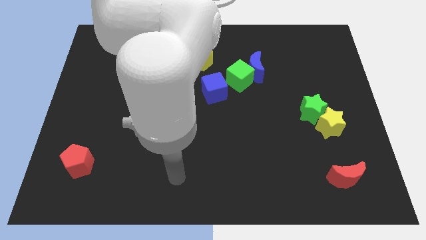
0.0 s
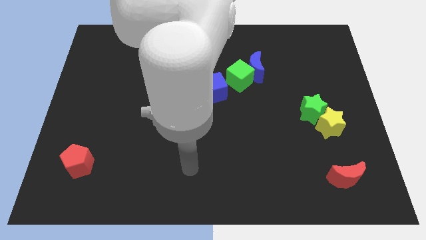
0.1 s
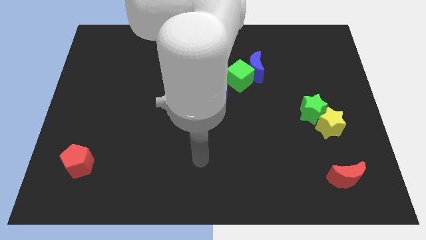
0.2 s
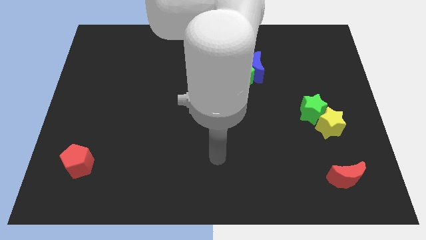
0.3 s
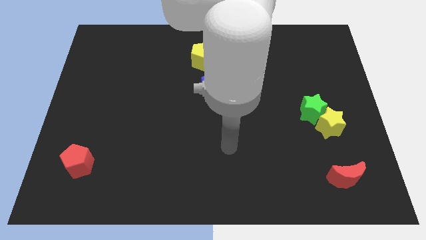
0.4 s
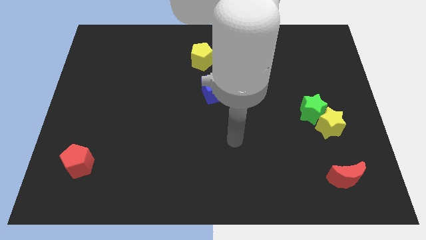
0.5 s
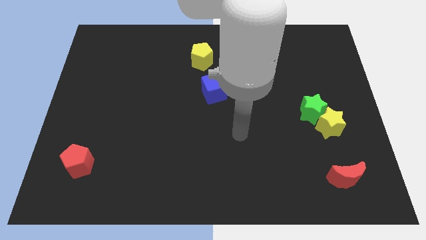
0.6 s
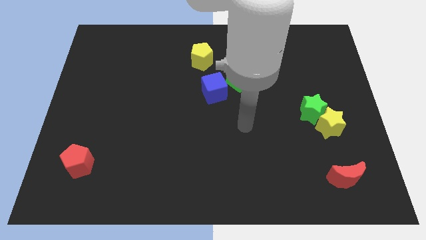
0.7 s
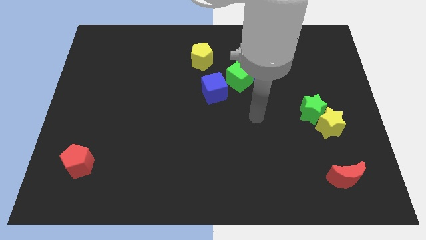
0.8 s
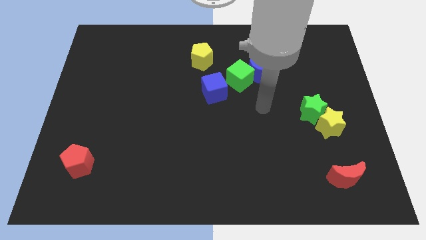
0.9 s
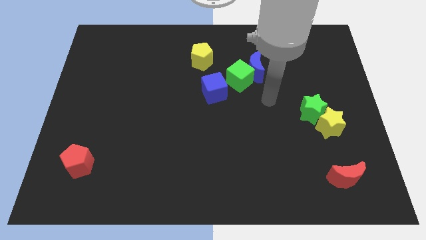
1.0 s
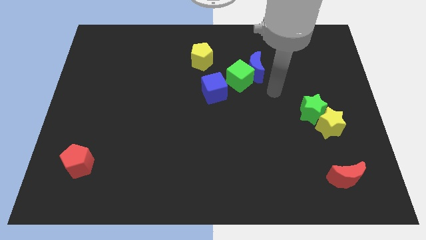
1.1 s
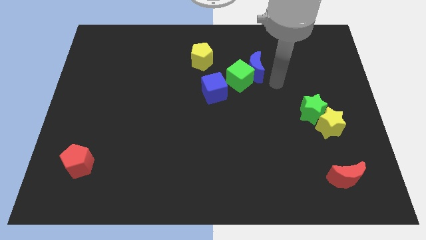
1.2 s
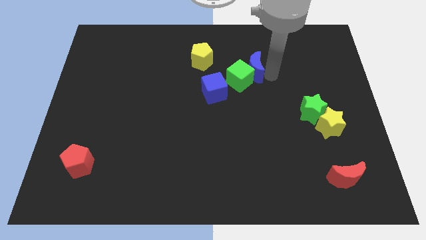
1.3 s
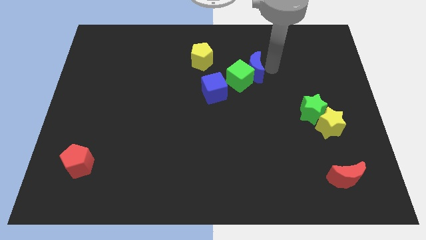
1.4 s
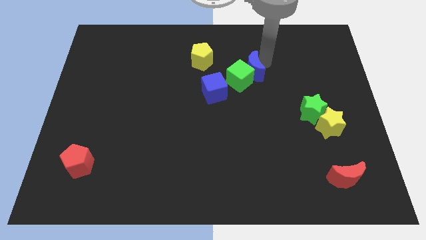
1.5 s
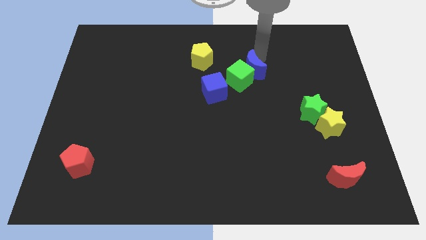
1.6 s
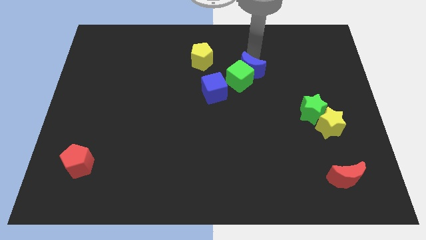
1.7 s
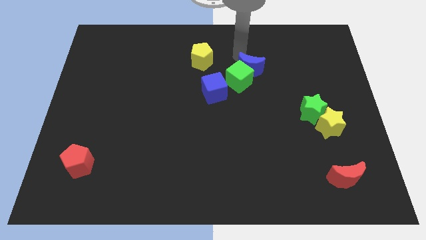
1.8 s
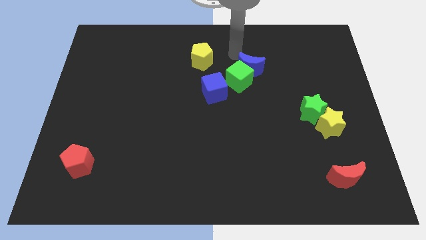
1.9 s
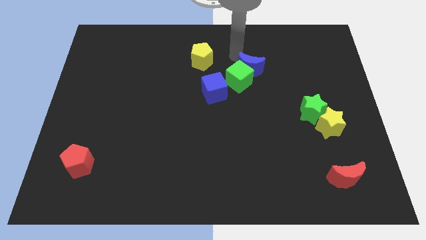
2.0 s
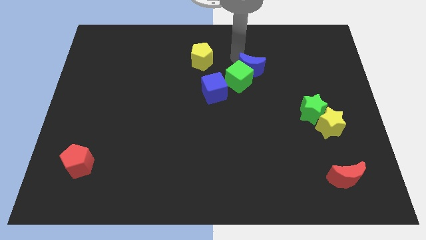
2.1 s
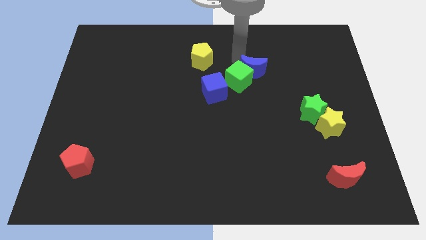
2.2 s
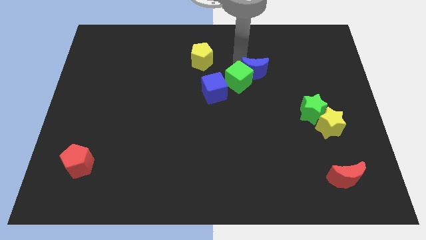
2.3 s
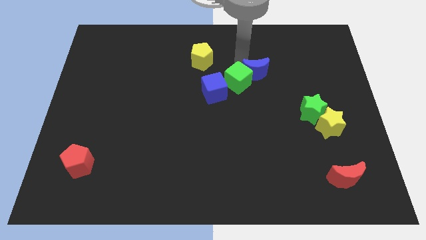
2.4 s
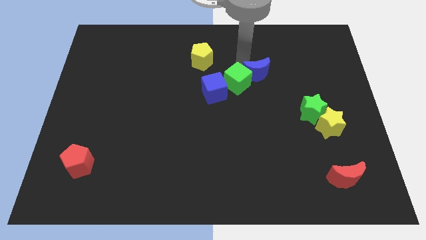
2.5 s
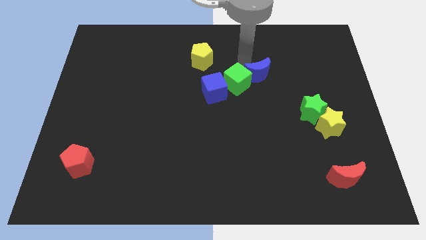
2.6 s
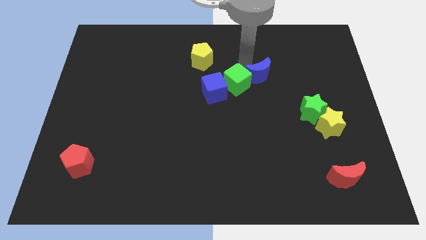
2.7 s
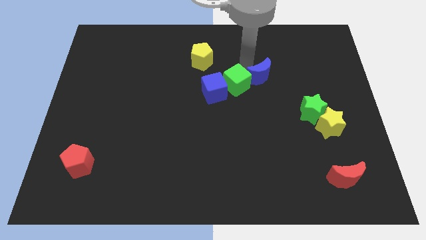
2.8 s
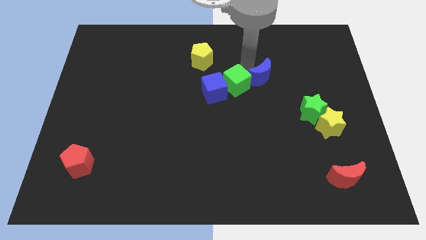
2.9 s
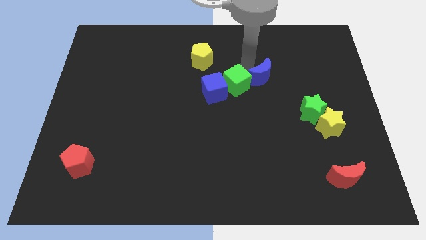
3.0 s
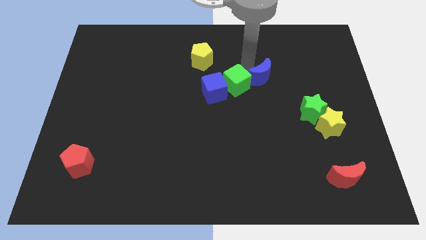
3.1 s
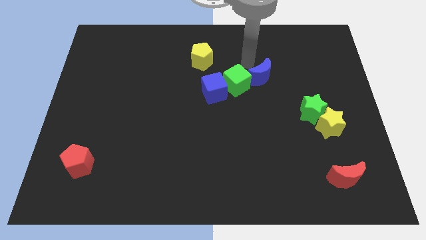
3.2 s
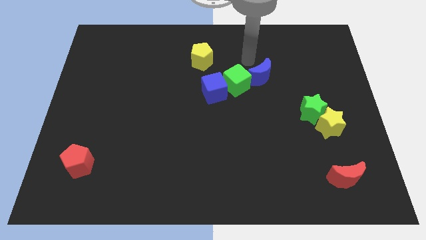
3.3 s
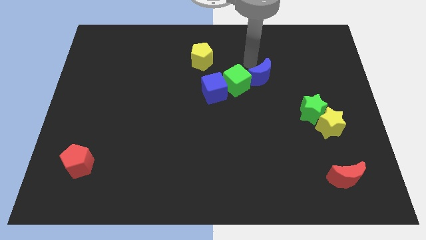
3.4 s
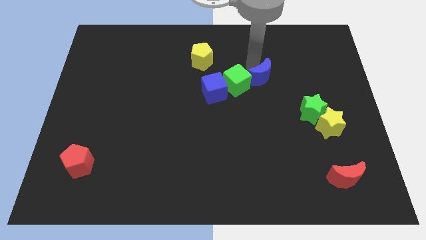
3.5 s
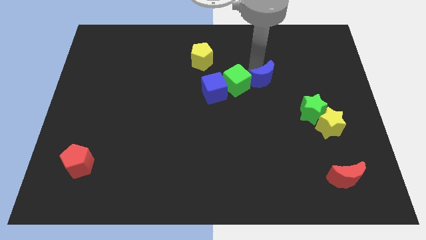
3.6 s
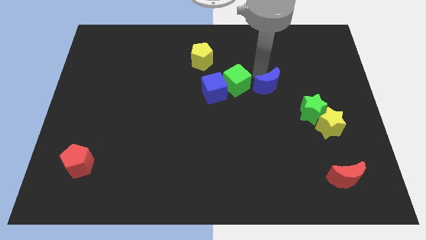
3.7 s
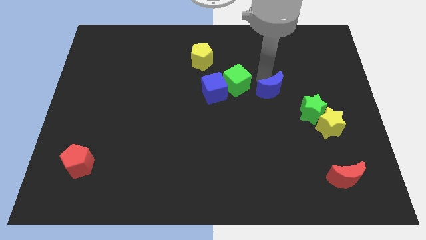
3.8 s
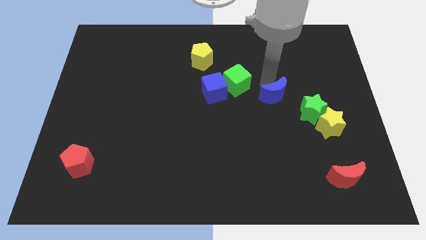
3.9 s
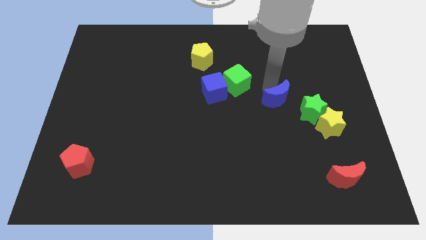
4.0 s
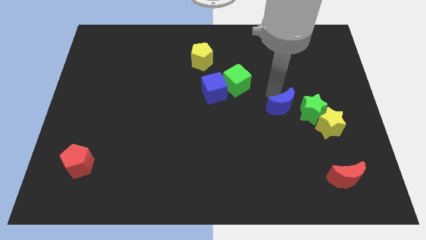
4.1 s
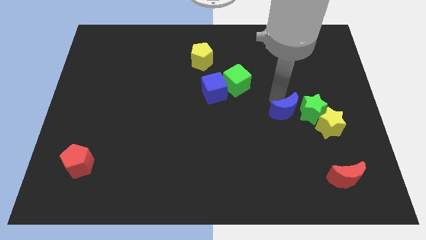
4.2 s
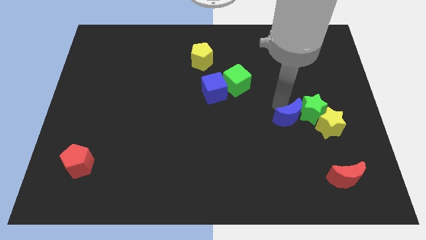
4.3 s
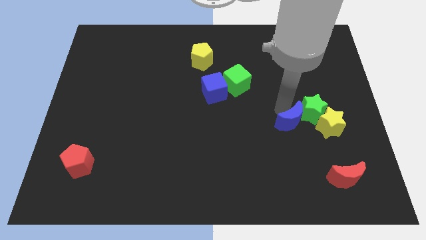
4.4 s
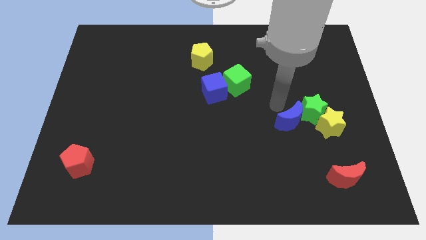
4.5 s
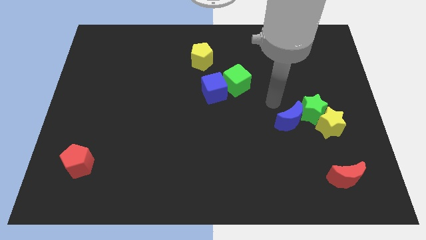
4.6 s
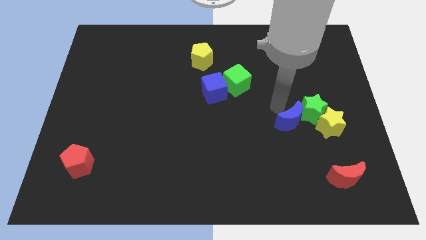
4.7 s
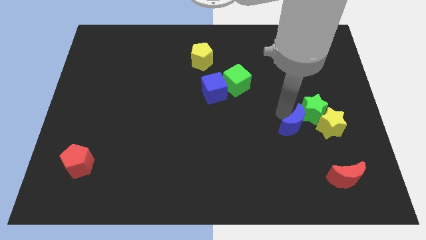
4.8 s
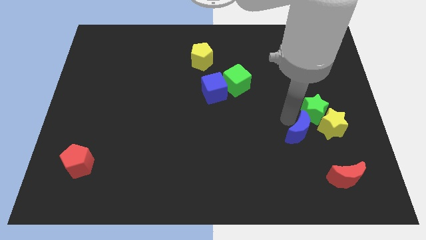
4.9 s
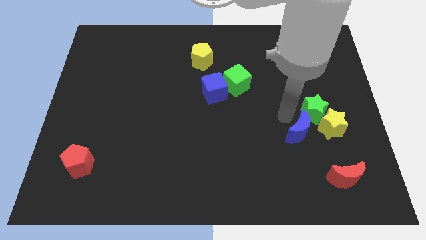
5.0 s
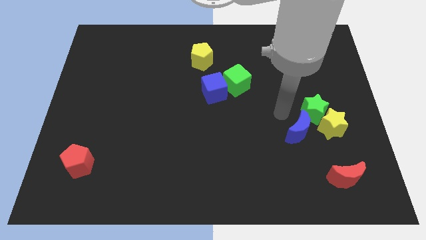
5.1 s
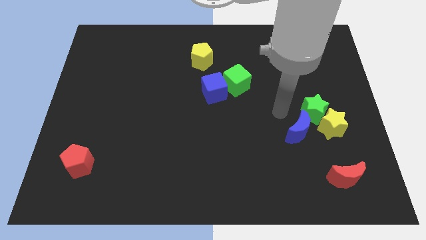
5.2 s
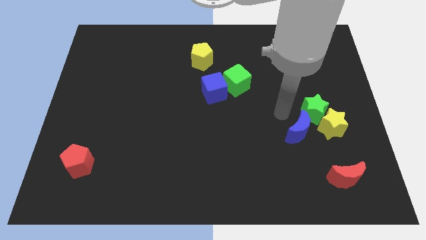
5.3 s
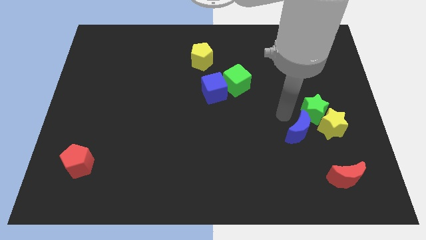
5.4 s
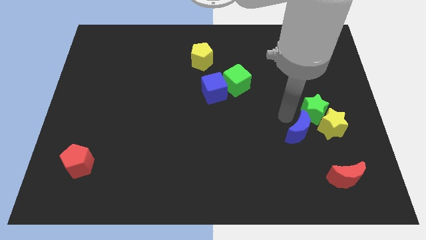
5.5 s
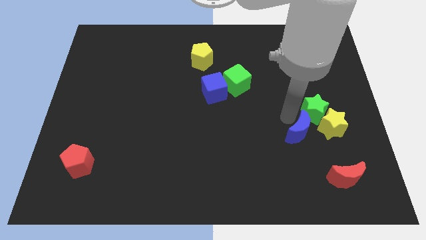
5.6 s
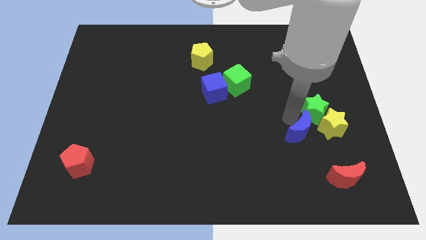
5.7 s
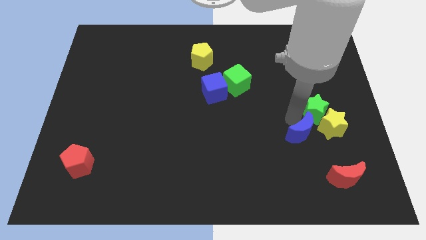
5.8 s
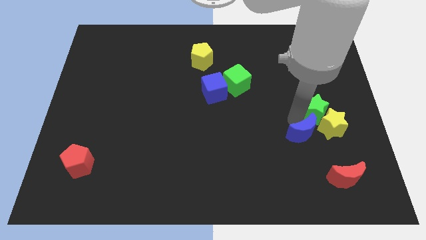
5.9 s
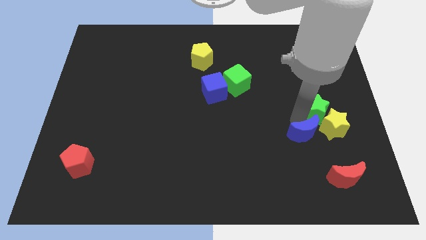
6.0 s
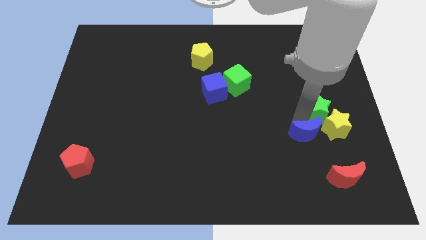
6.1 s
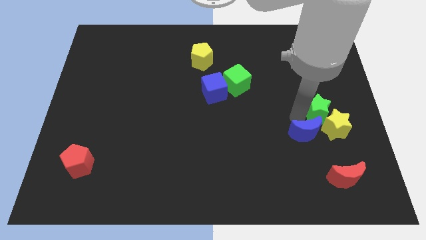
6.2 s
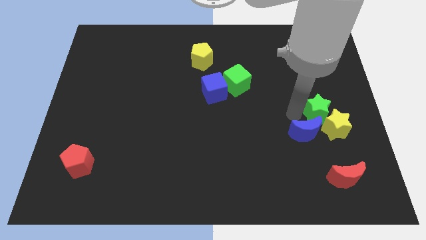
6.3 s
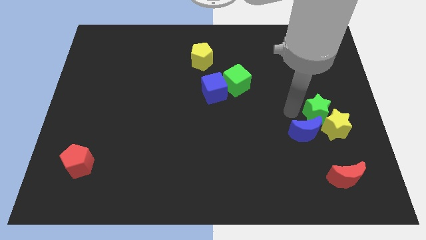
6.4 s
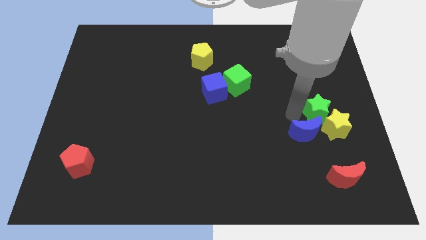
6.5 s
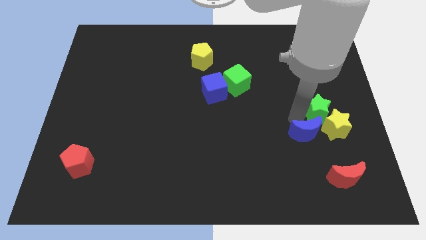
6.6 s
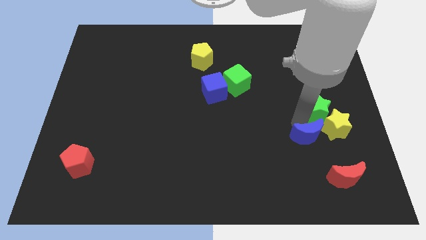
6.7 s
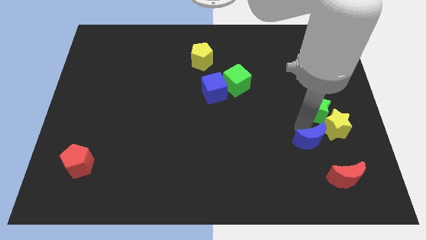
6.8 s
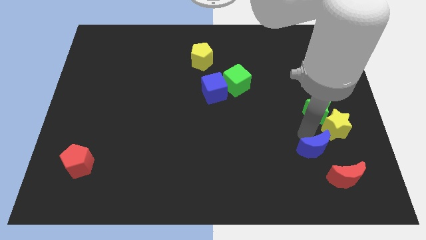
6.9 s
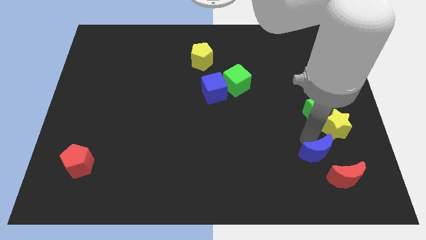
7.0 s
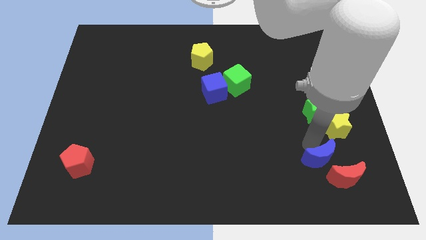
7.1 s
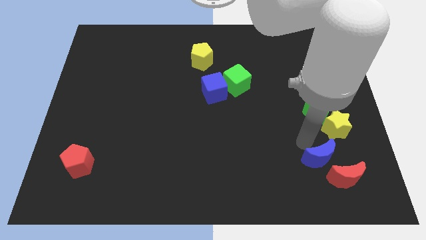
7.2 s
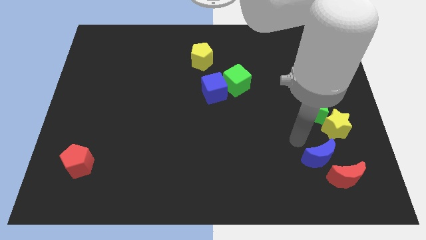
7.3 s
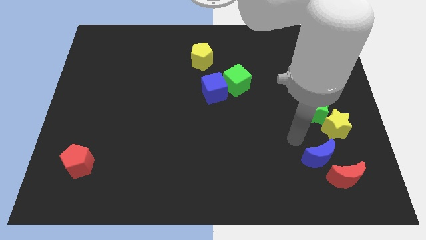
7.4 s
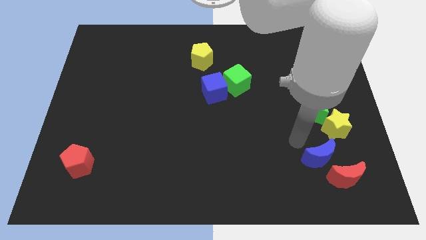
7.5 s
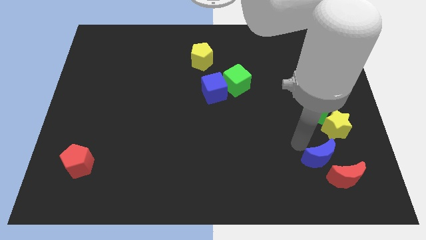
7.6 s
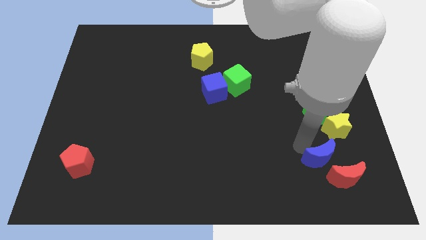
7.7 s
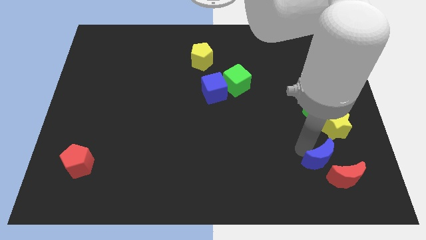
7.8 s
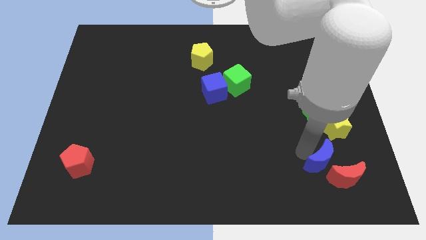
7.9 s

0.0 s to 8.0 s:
push the blue moon towards the red moon
